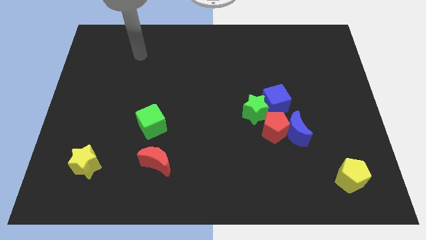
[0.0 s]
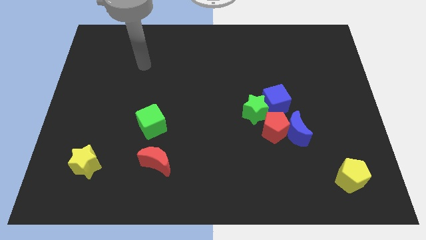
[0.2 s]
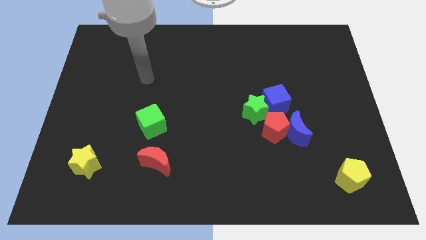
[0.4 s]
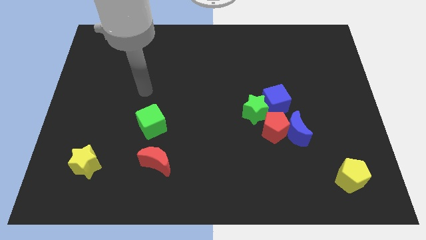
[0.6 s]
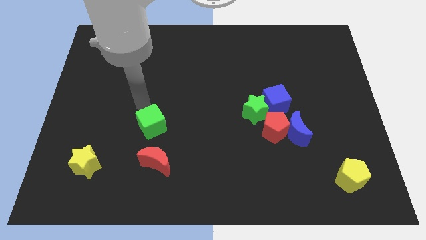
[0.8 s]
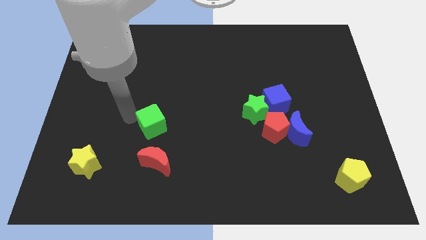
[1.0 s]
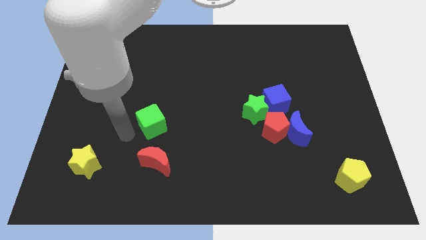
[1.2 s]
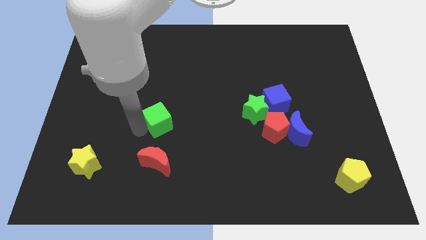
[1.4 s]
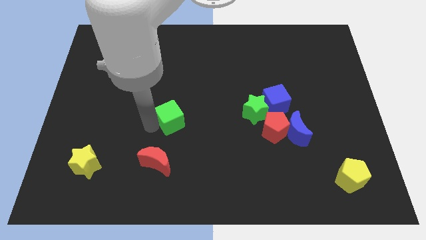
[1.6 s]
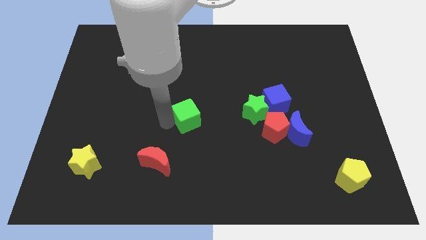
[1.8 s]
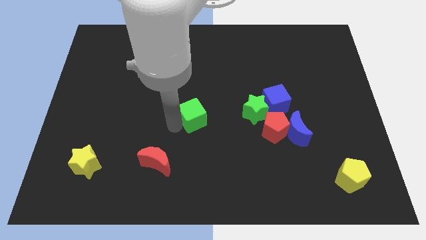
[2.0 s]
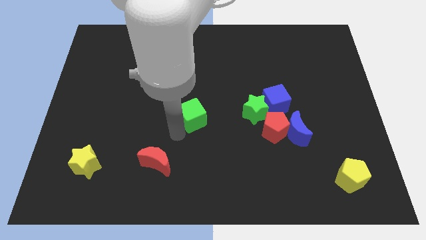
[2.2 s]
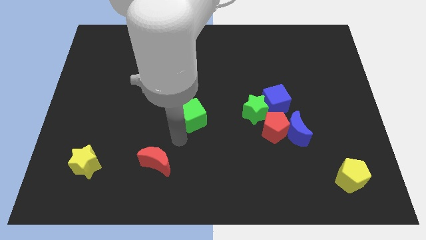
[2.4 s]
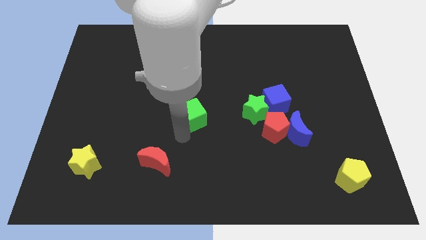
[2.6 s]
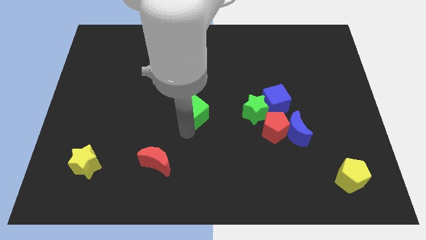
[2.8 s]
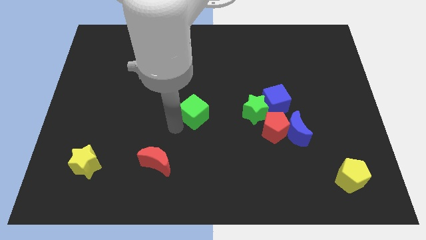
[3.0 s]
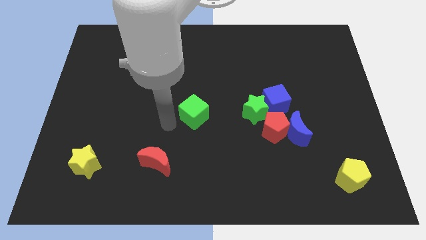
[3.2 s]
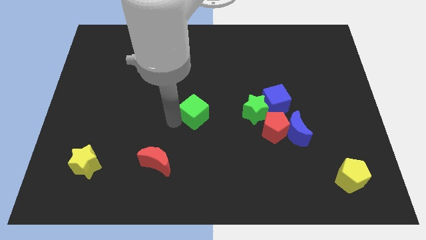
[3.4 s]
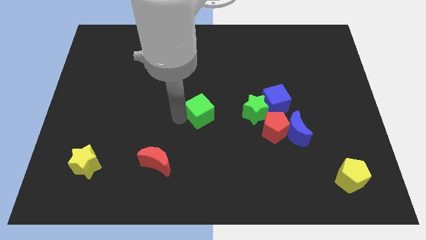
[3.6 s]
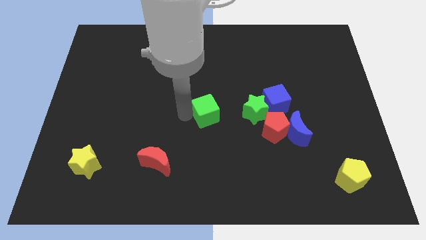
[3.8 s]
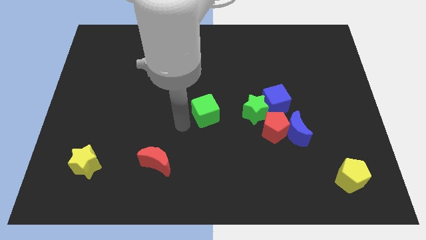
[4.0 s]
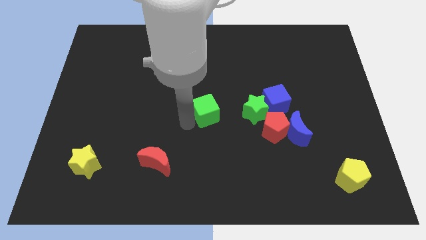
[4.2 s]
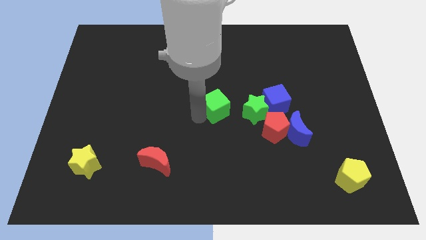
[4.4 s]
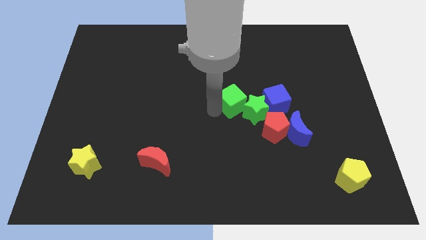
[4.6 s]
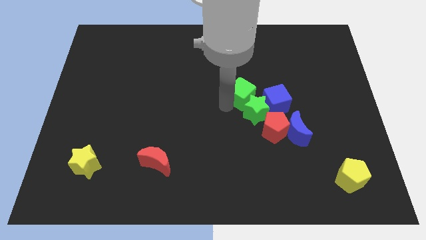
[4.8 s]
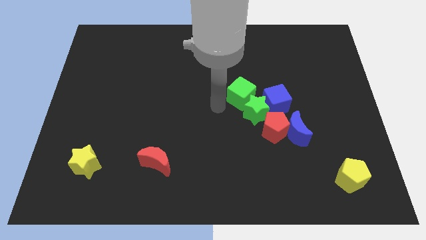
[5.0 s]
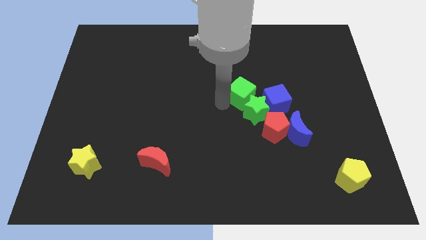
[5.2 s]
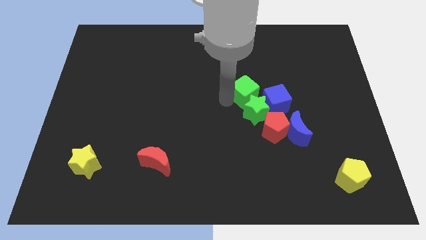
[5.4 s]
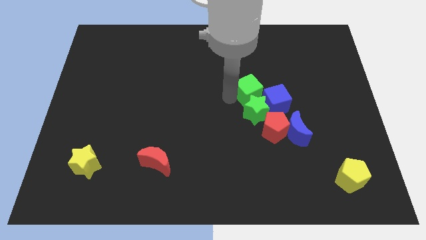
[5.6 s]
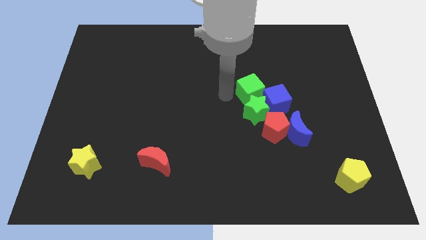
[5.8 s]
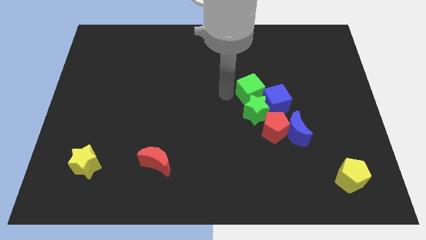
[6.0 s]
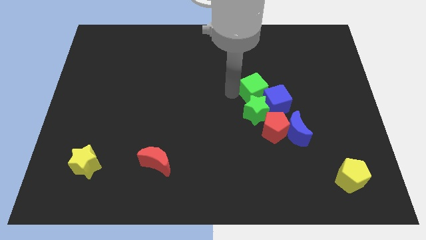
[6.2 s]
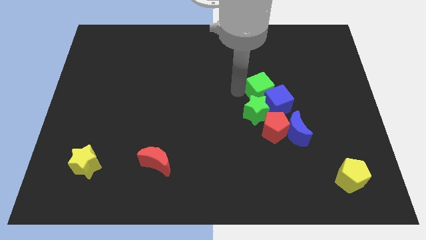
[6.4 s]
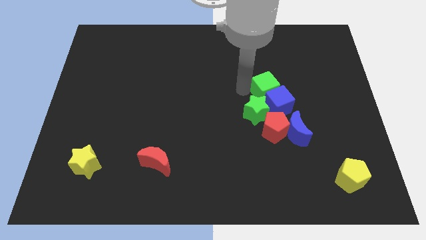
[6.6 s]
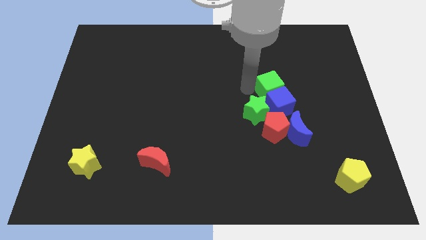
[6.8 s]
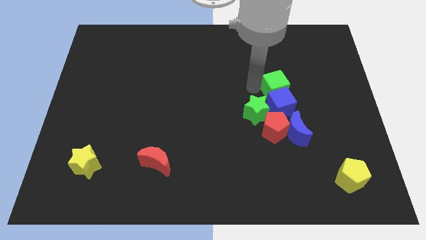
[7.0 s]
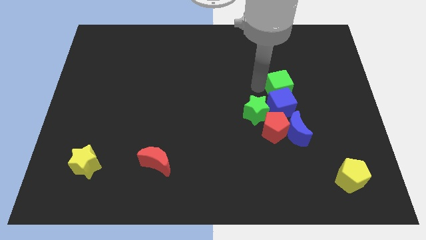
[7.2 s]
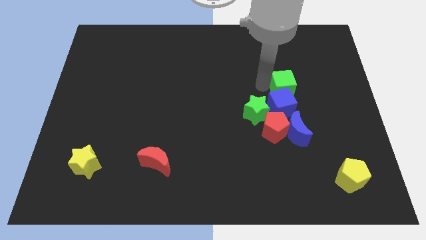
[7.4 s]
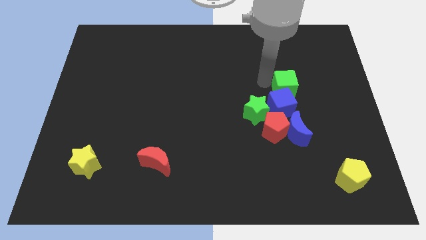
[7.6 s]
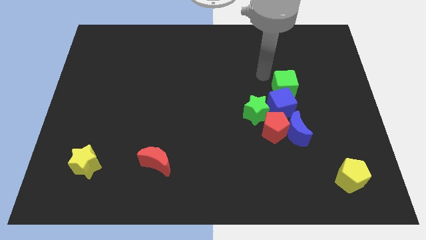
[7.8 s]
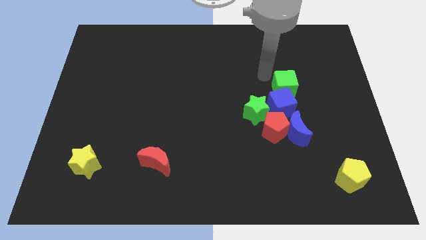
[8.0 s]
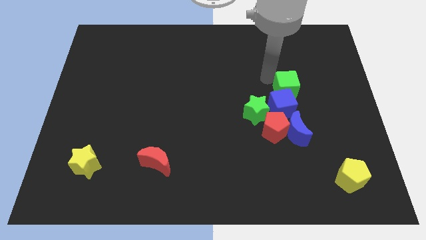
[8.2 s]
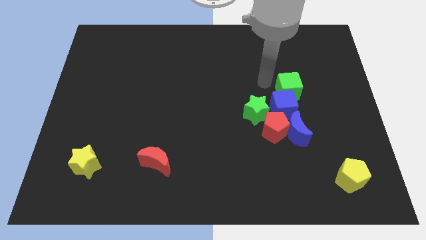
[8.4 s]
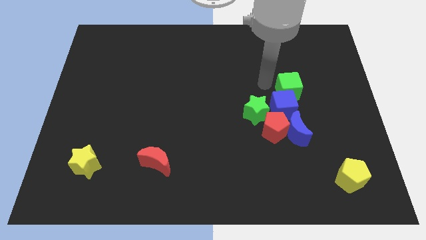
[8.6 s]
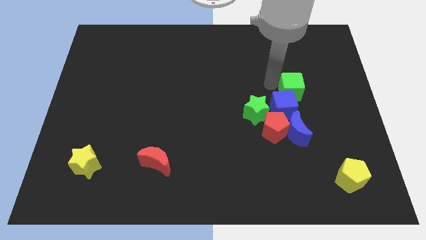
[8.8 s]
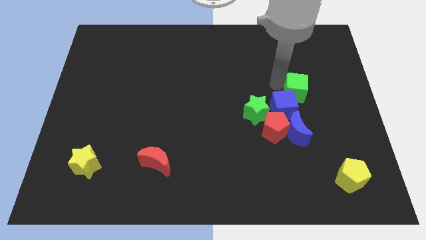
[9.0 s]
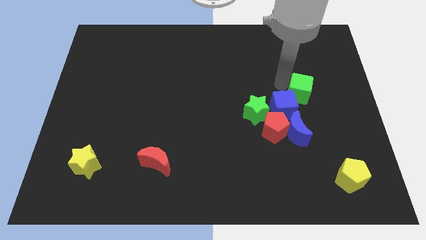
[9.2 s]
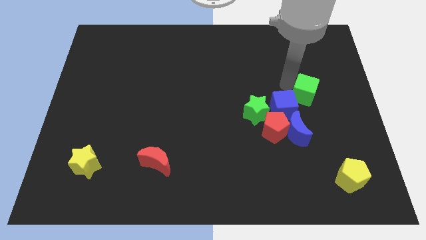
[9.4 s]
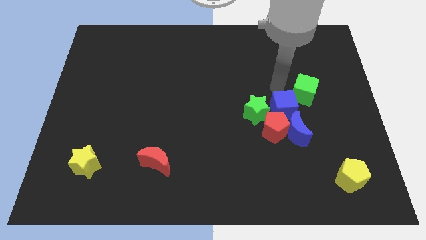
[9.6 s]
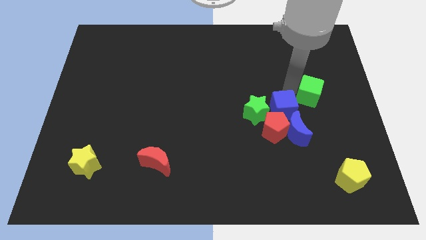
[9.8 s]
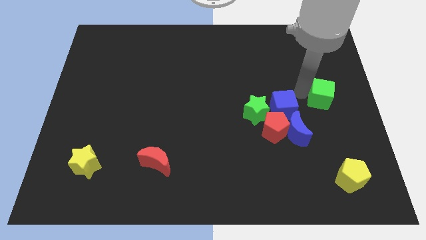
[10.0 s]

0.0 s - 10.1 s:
push the green cube to the center right

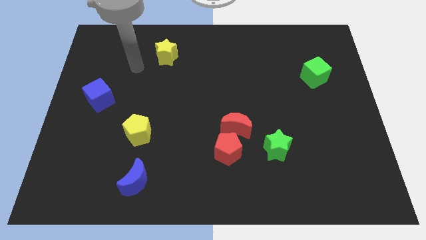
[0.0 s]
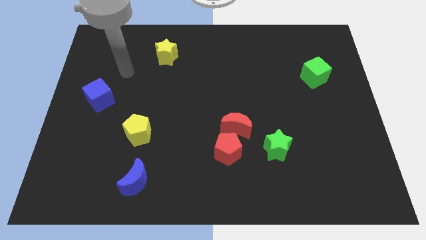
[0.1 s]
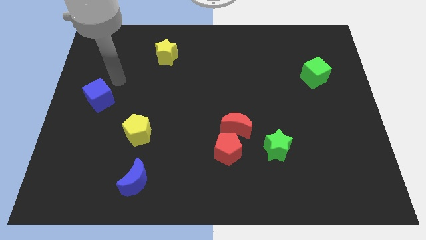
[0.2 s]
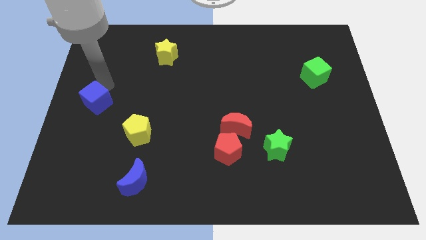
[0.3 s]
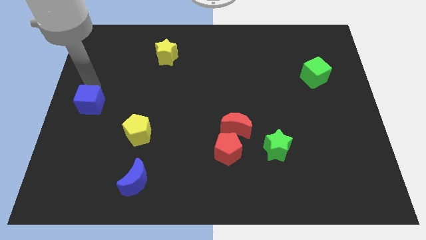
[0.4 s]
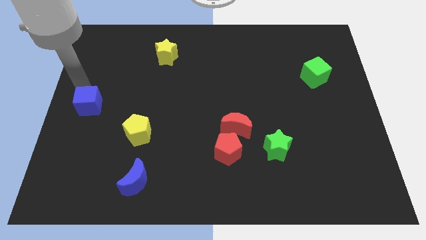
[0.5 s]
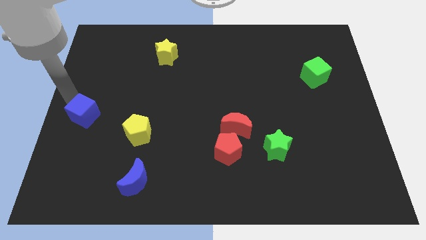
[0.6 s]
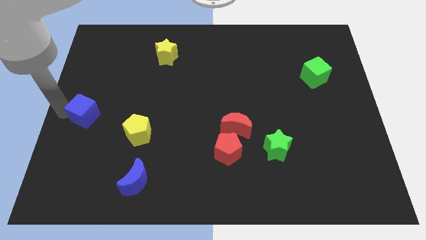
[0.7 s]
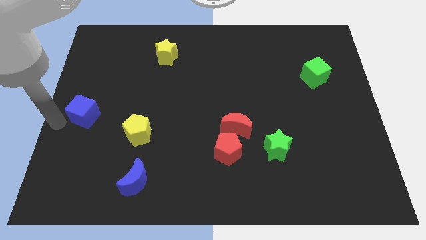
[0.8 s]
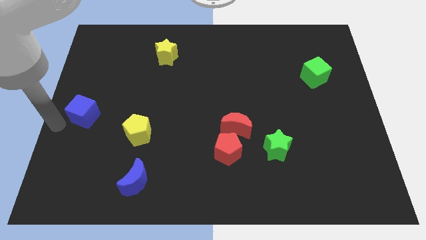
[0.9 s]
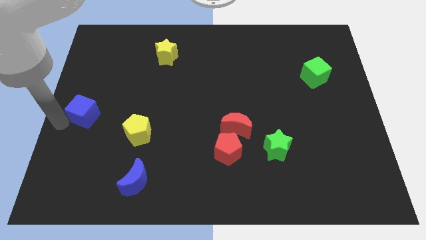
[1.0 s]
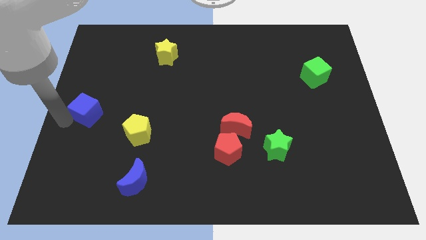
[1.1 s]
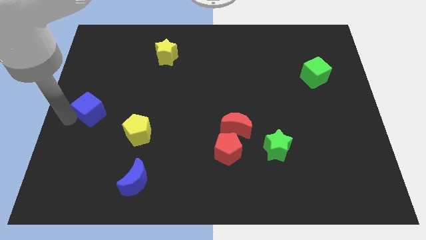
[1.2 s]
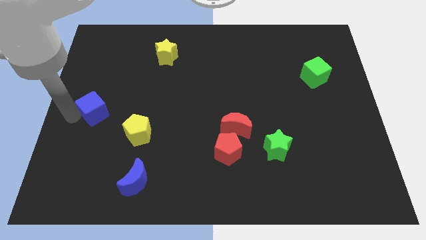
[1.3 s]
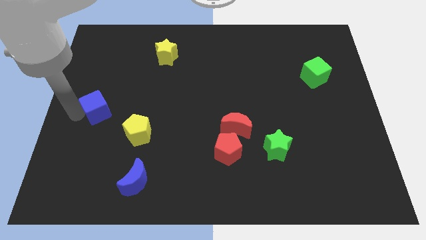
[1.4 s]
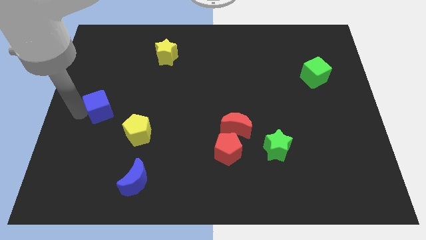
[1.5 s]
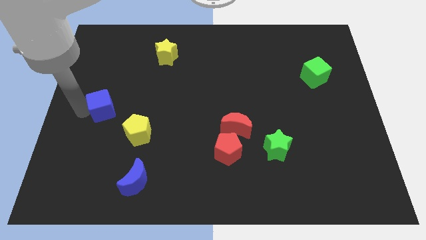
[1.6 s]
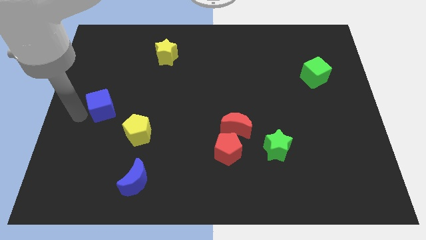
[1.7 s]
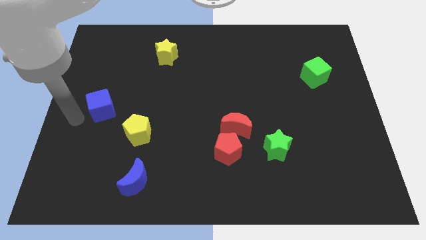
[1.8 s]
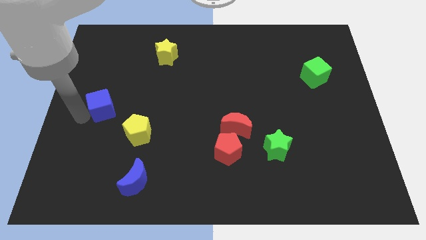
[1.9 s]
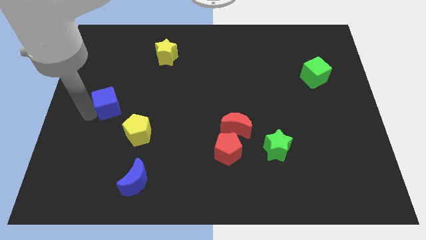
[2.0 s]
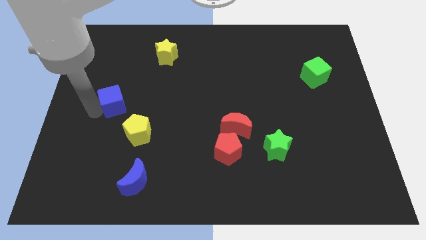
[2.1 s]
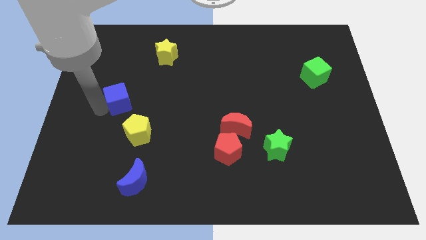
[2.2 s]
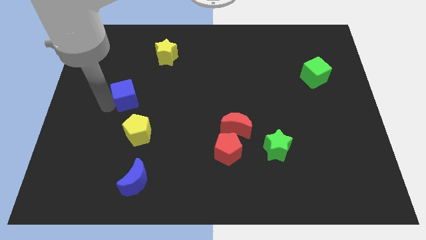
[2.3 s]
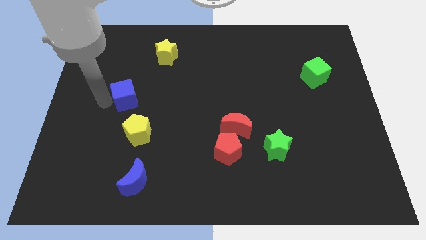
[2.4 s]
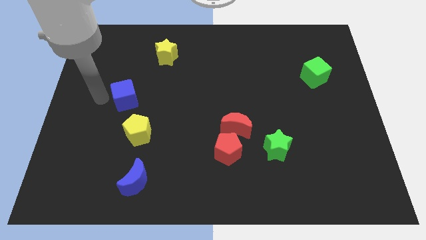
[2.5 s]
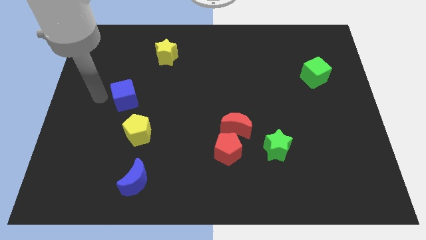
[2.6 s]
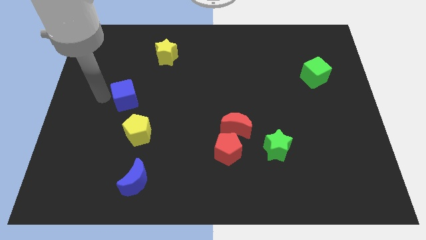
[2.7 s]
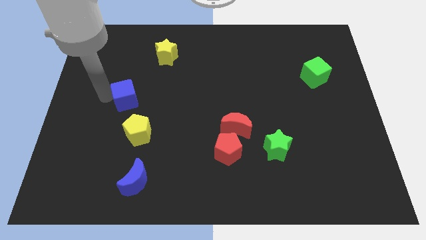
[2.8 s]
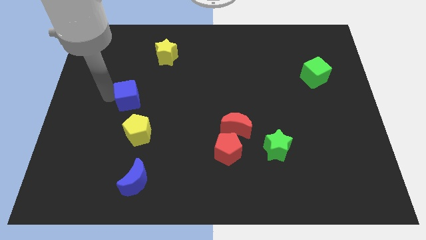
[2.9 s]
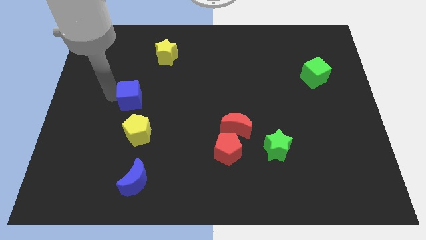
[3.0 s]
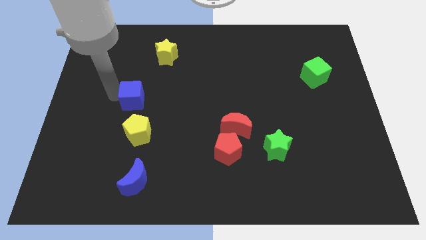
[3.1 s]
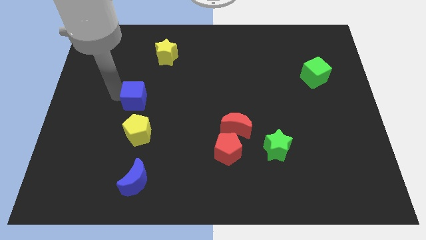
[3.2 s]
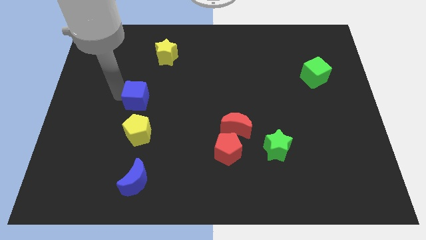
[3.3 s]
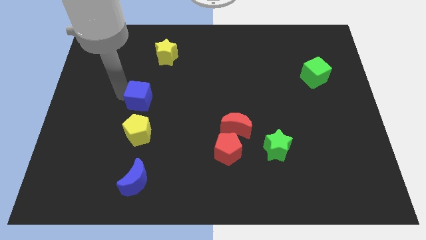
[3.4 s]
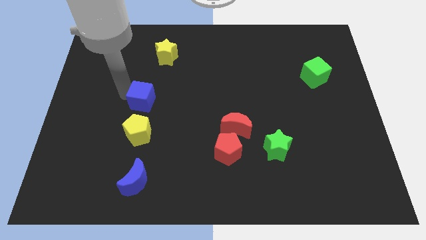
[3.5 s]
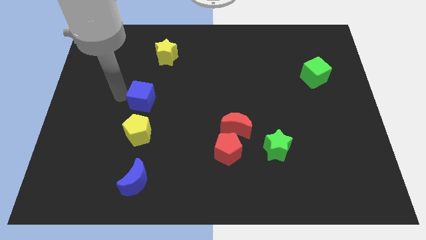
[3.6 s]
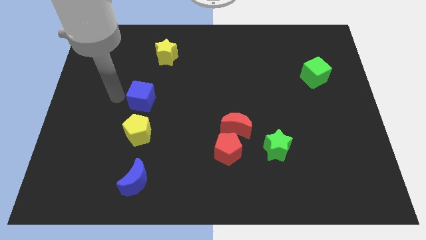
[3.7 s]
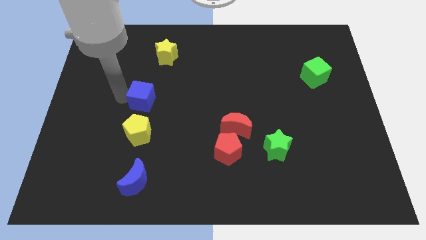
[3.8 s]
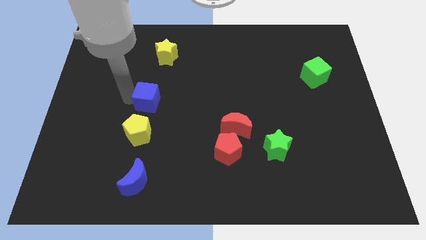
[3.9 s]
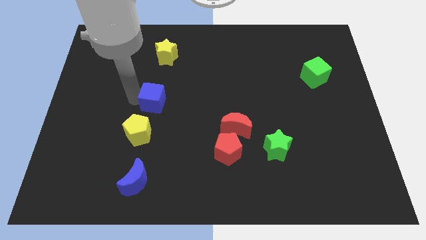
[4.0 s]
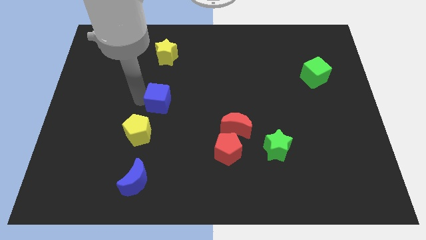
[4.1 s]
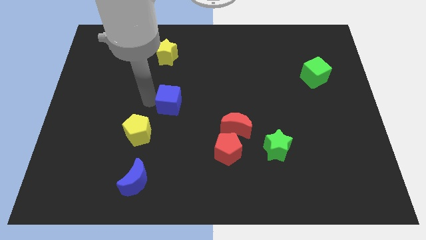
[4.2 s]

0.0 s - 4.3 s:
move the blue cube to the center of the board
